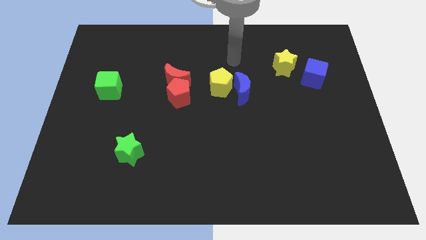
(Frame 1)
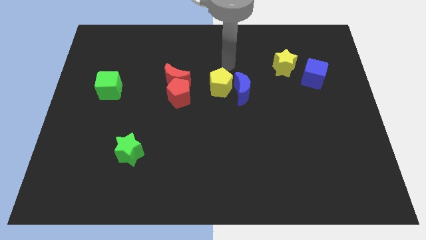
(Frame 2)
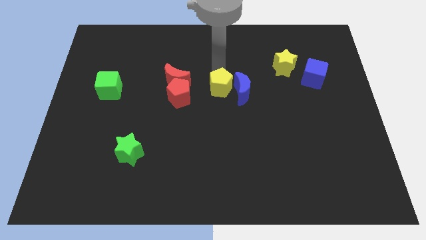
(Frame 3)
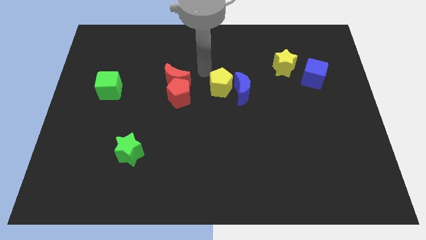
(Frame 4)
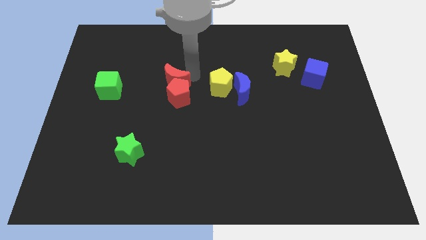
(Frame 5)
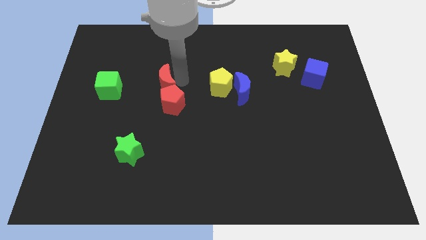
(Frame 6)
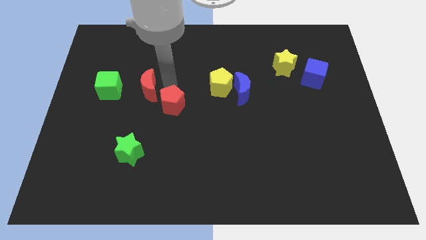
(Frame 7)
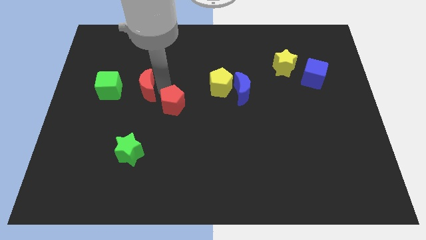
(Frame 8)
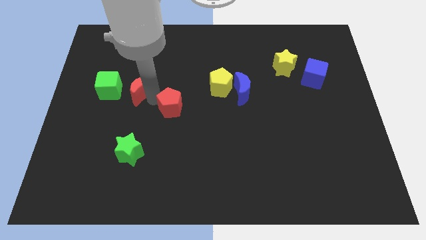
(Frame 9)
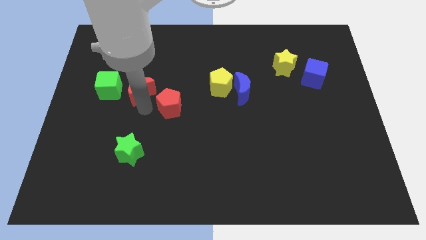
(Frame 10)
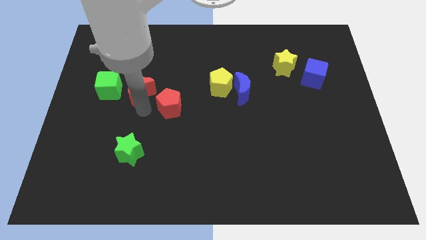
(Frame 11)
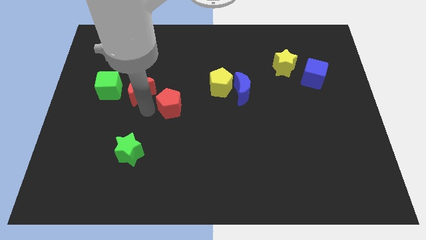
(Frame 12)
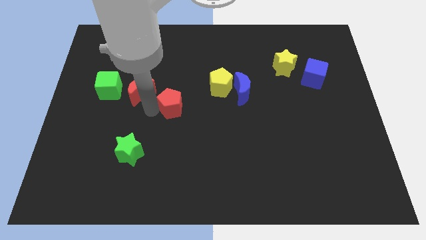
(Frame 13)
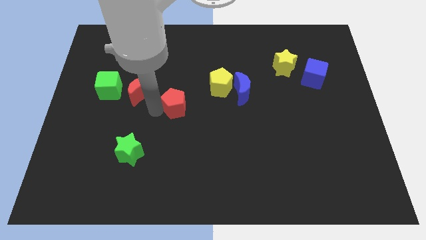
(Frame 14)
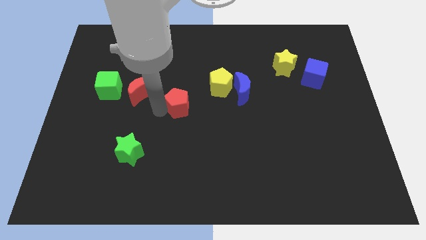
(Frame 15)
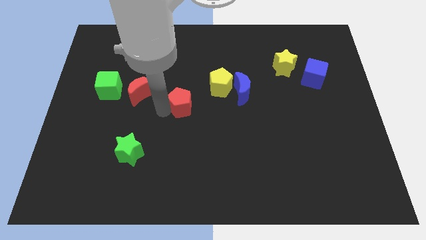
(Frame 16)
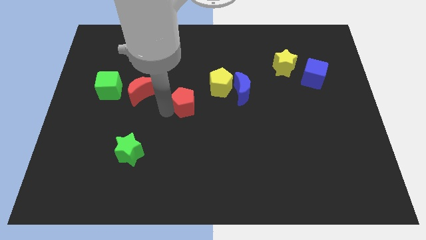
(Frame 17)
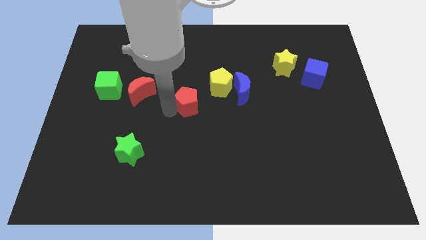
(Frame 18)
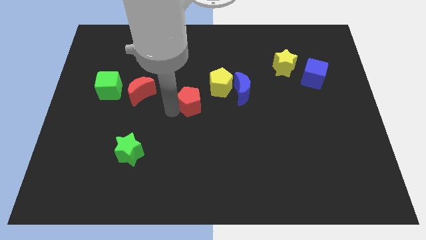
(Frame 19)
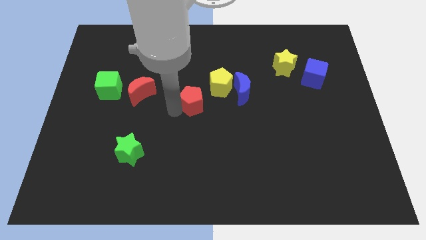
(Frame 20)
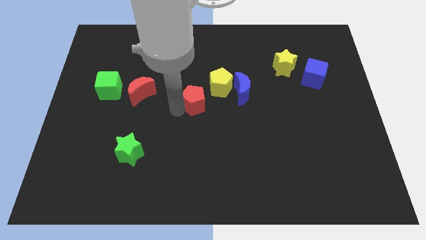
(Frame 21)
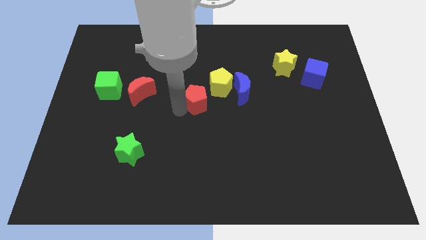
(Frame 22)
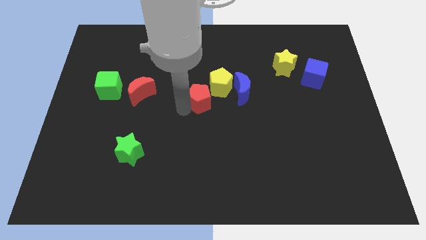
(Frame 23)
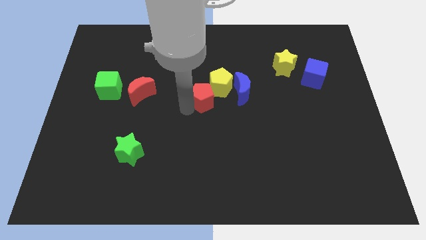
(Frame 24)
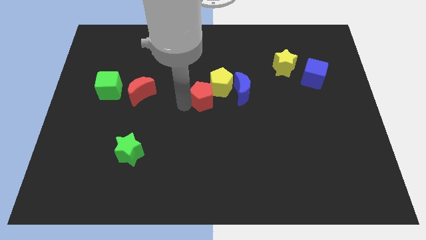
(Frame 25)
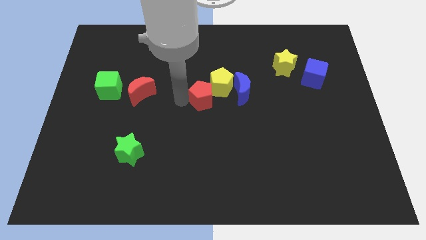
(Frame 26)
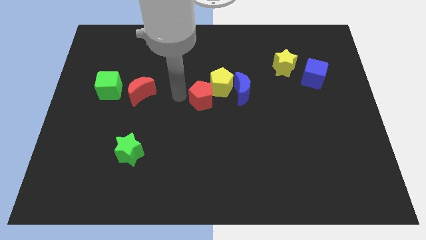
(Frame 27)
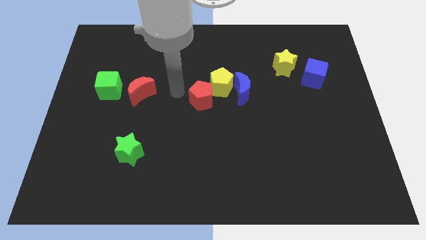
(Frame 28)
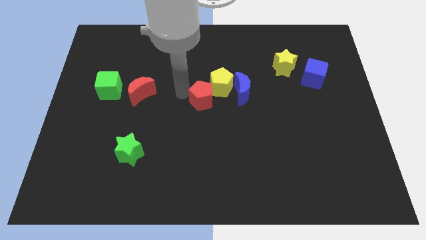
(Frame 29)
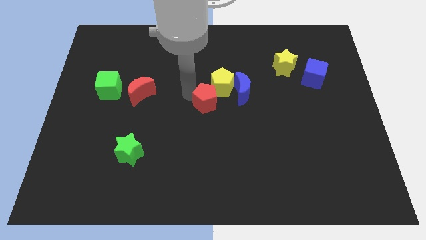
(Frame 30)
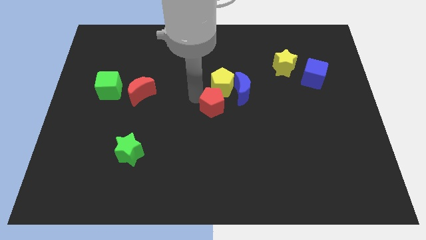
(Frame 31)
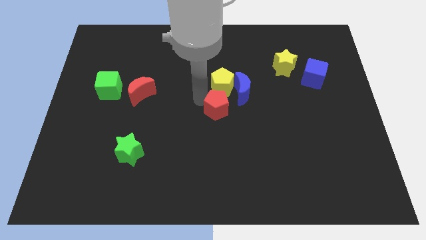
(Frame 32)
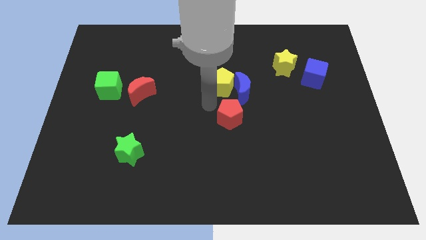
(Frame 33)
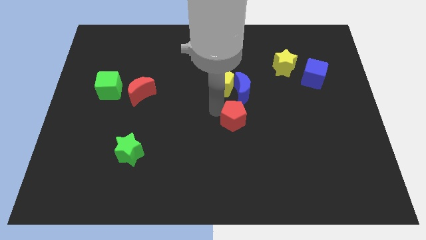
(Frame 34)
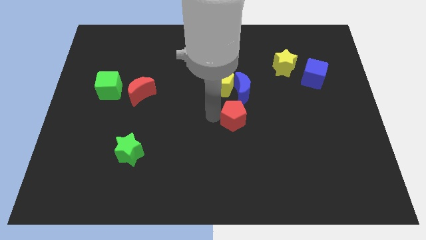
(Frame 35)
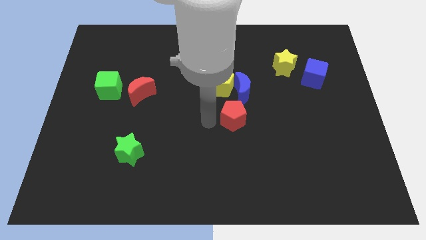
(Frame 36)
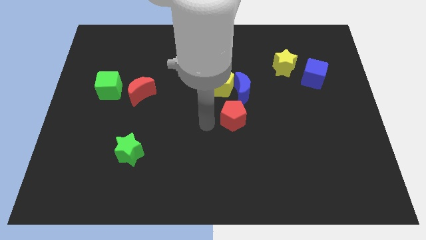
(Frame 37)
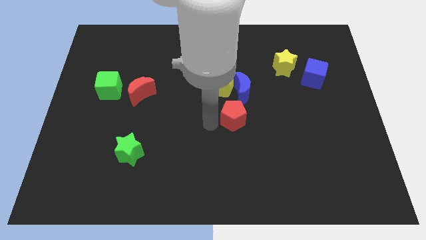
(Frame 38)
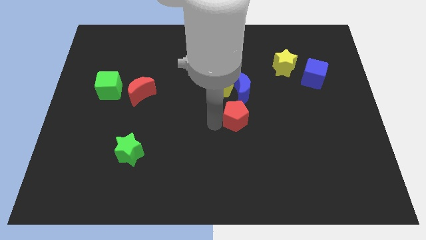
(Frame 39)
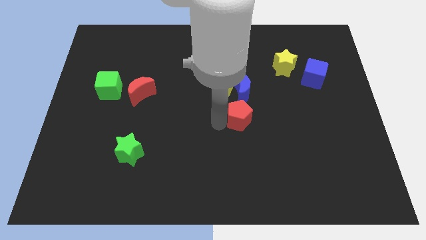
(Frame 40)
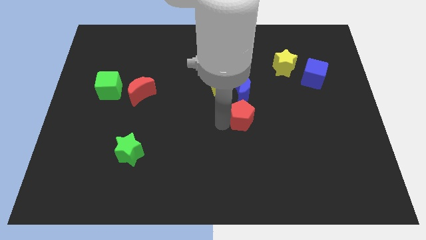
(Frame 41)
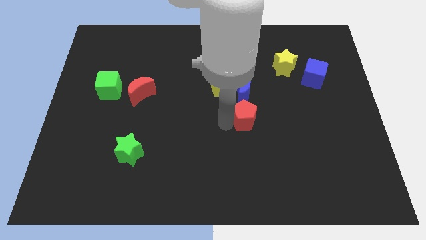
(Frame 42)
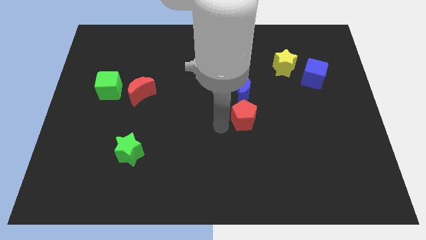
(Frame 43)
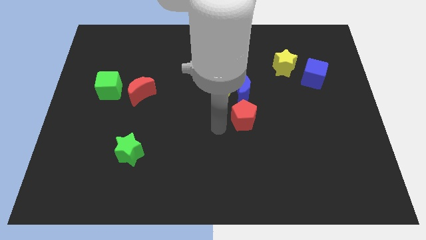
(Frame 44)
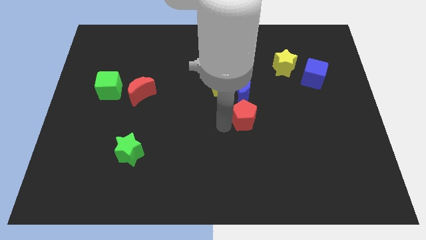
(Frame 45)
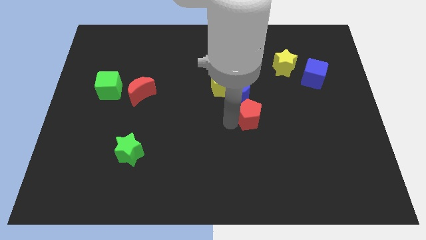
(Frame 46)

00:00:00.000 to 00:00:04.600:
push the red pentagon to the bottom right of the blue moon

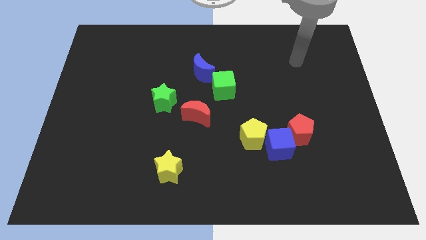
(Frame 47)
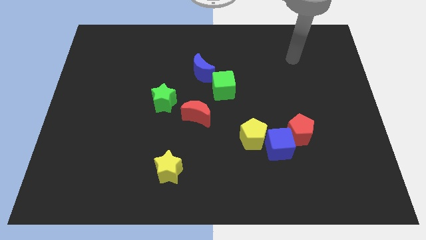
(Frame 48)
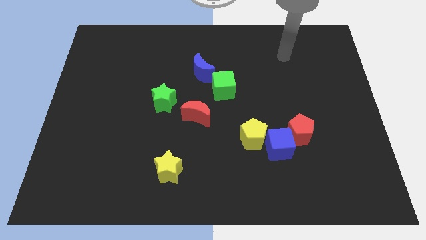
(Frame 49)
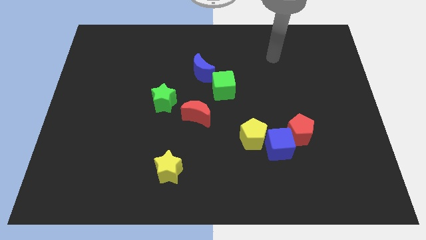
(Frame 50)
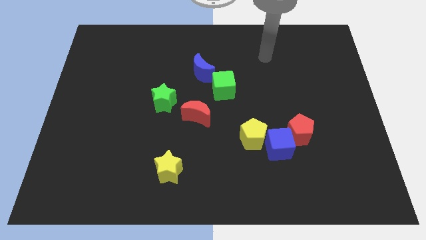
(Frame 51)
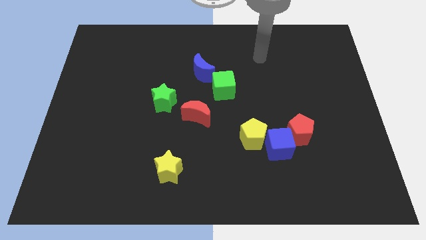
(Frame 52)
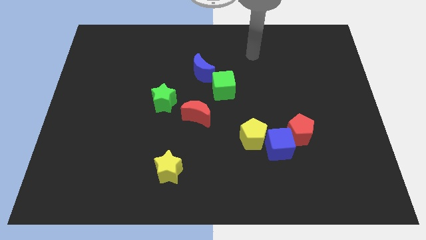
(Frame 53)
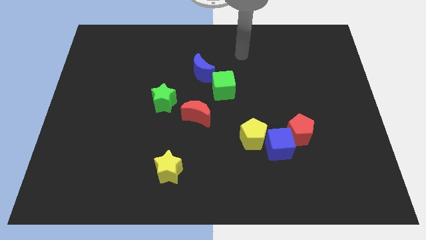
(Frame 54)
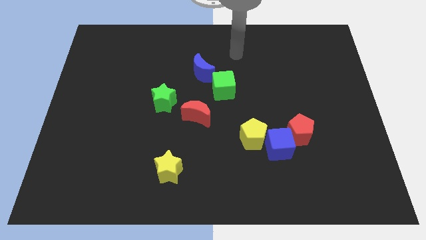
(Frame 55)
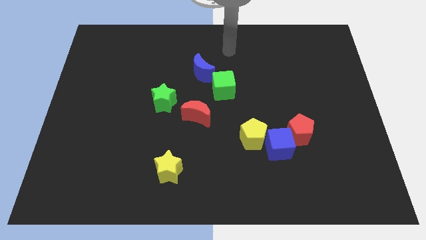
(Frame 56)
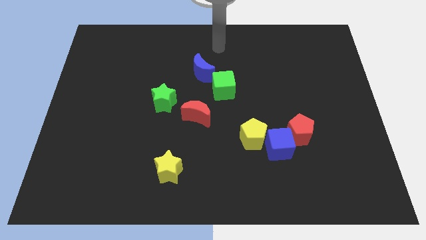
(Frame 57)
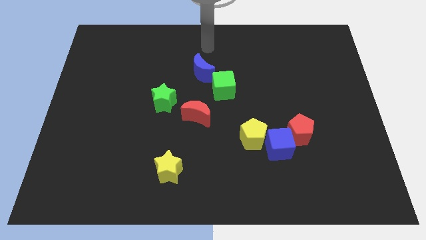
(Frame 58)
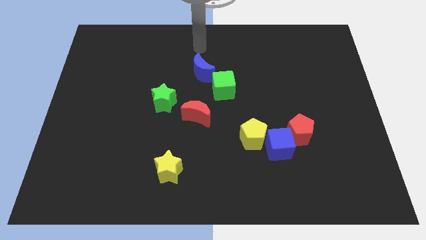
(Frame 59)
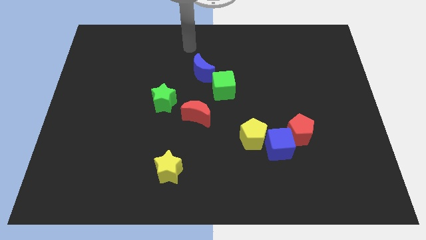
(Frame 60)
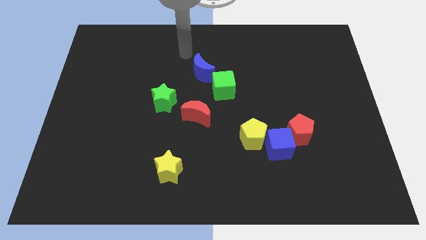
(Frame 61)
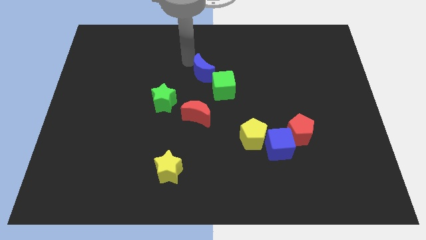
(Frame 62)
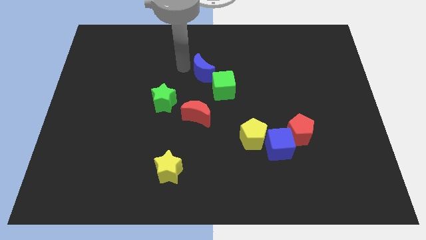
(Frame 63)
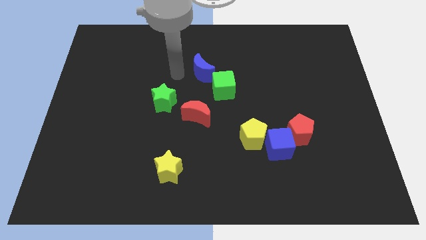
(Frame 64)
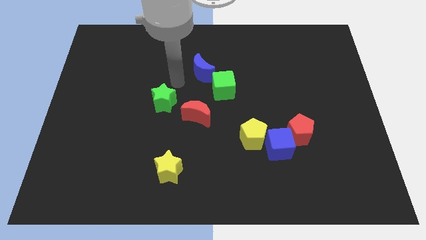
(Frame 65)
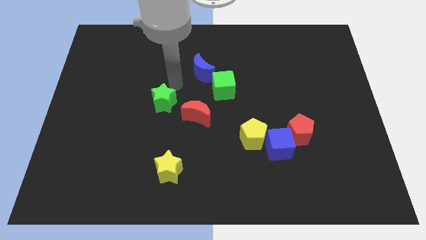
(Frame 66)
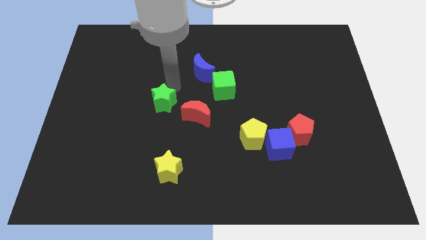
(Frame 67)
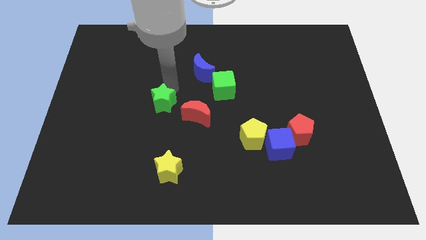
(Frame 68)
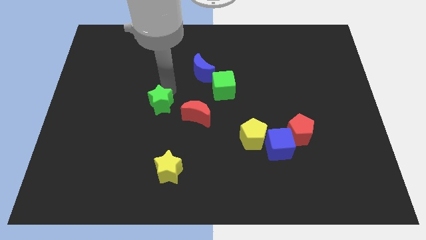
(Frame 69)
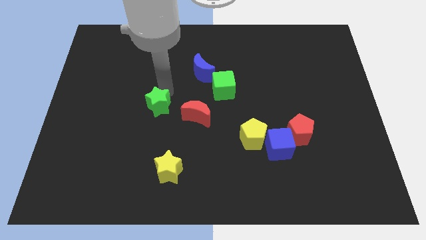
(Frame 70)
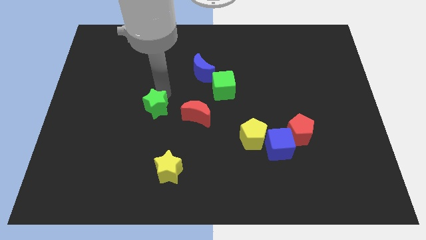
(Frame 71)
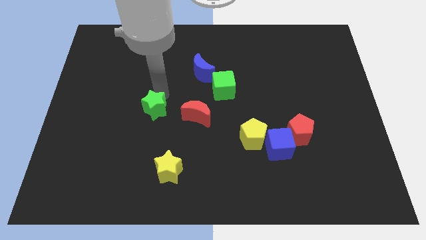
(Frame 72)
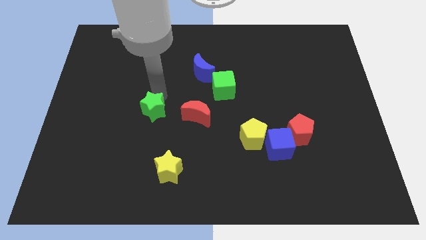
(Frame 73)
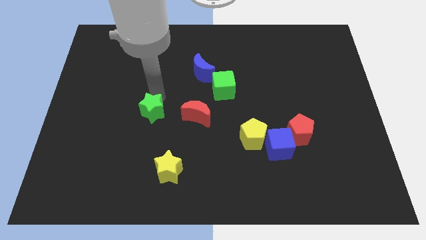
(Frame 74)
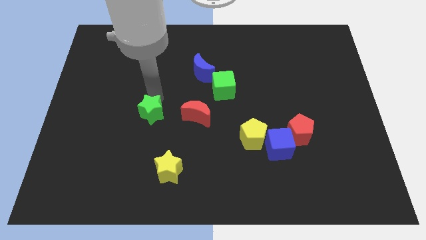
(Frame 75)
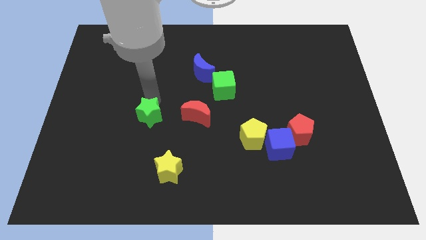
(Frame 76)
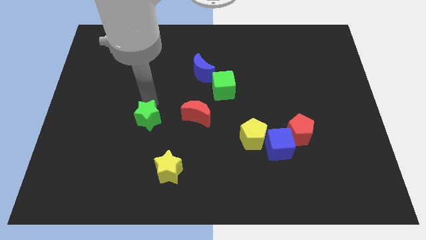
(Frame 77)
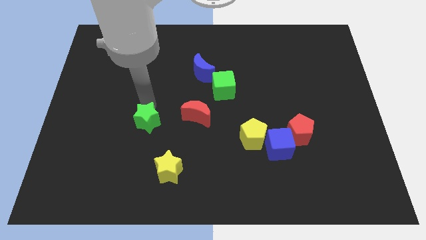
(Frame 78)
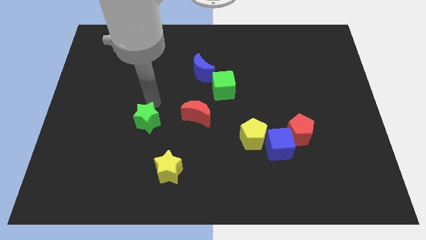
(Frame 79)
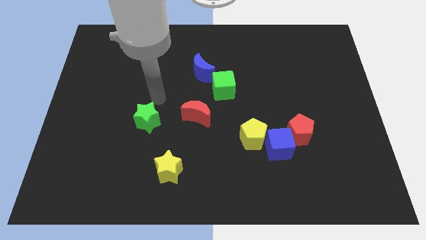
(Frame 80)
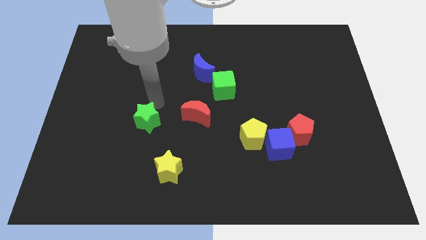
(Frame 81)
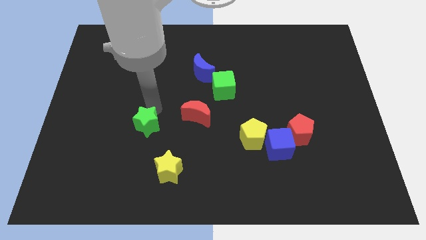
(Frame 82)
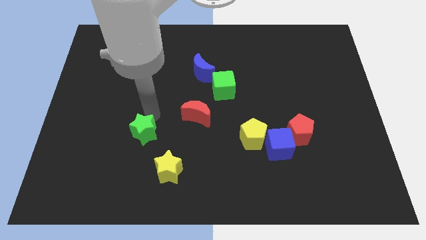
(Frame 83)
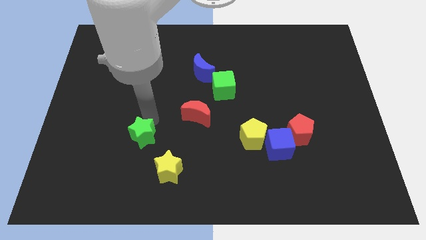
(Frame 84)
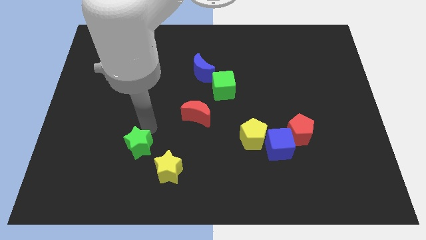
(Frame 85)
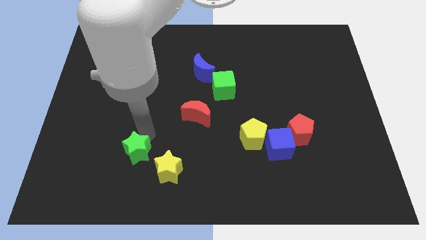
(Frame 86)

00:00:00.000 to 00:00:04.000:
slide the green star to the left side of the yellow star
